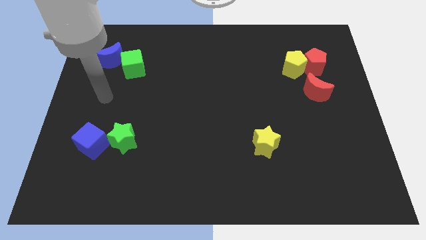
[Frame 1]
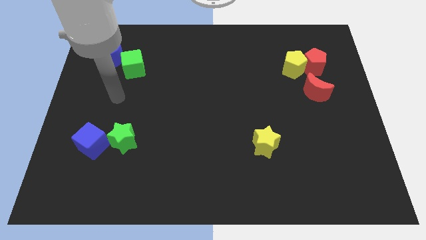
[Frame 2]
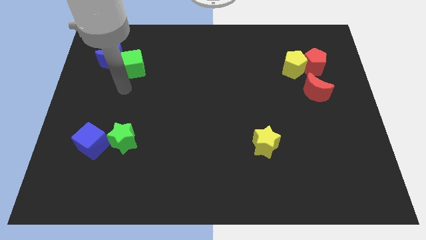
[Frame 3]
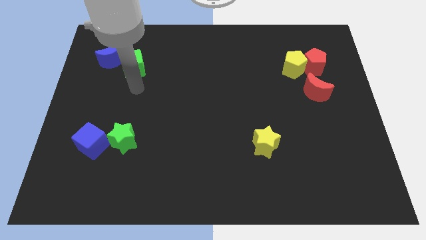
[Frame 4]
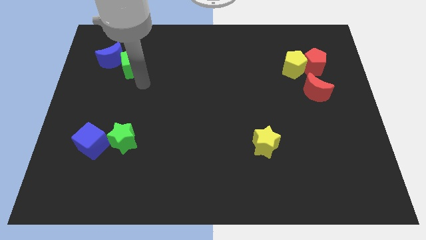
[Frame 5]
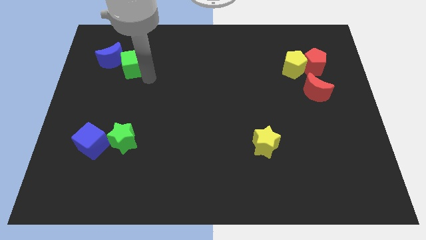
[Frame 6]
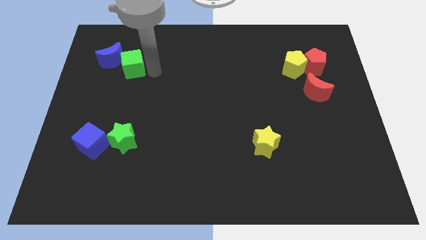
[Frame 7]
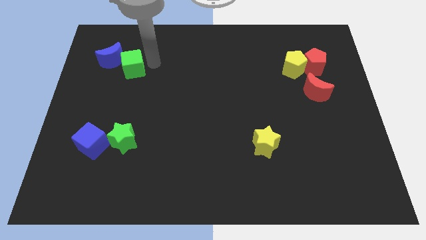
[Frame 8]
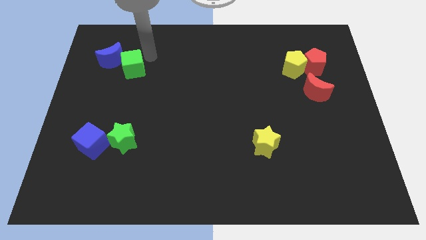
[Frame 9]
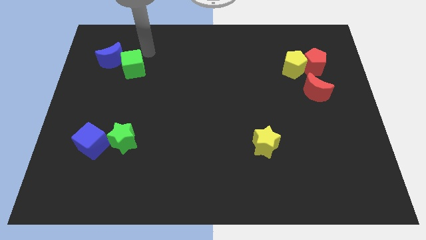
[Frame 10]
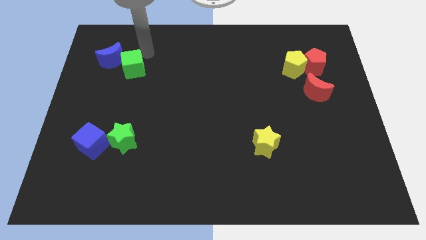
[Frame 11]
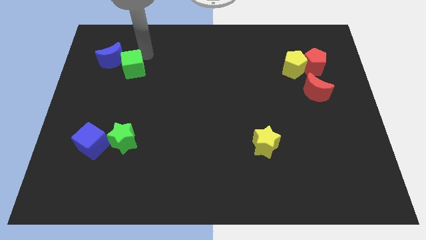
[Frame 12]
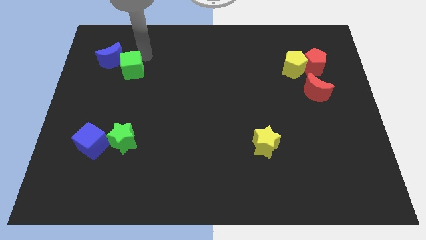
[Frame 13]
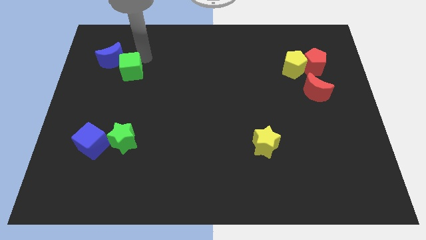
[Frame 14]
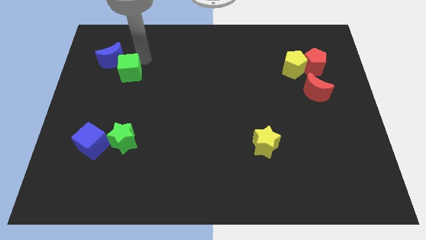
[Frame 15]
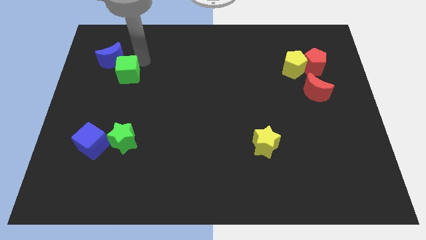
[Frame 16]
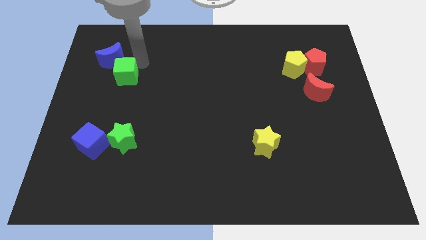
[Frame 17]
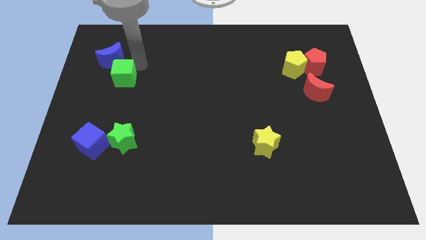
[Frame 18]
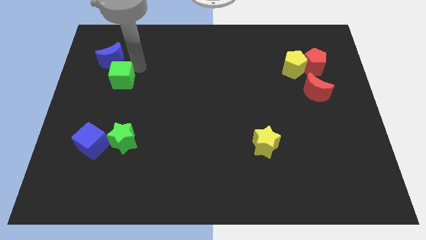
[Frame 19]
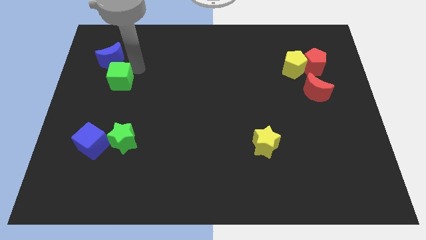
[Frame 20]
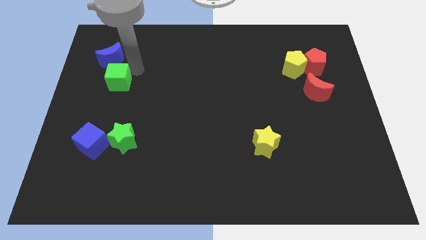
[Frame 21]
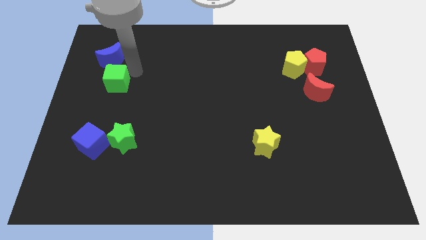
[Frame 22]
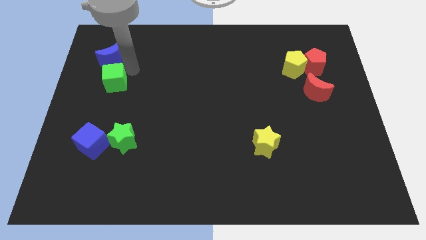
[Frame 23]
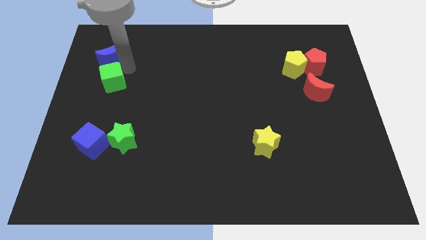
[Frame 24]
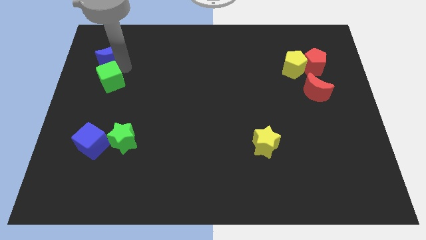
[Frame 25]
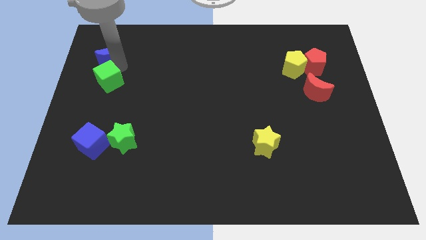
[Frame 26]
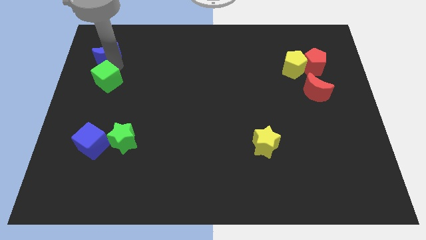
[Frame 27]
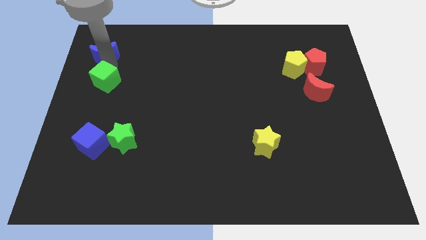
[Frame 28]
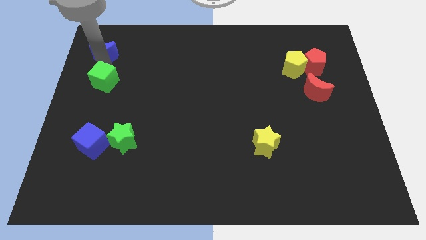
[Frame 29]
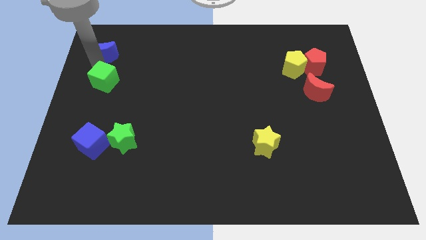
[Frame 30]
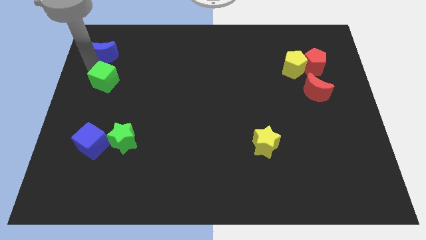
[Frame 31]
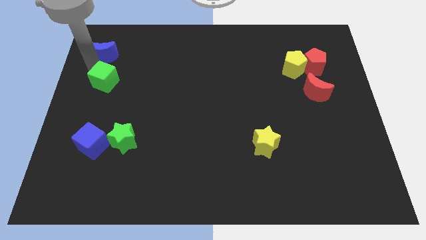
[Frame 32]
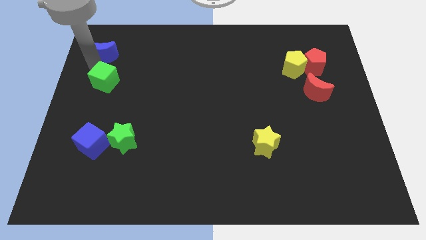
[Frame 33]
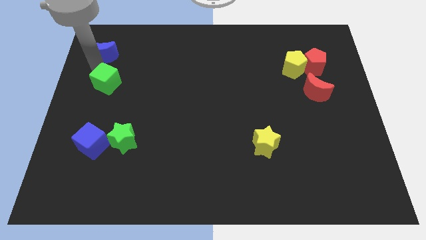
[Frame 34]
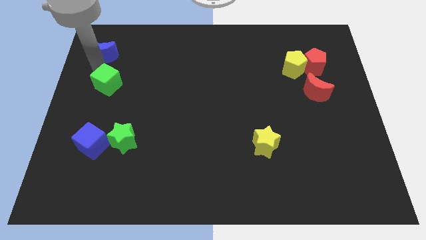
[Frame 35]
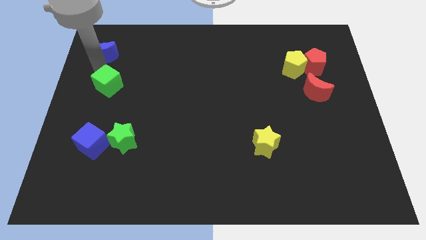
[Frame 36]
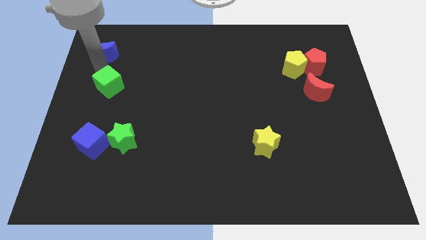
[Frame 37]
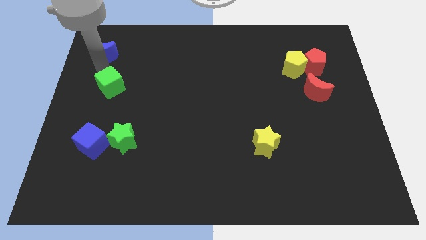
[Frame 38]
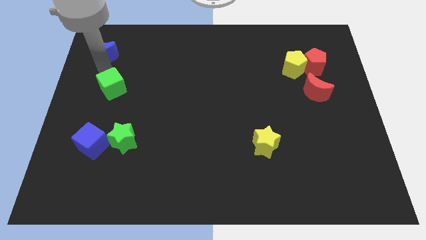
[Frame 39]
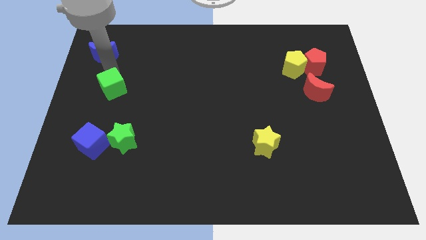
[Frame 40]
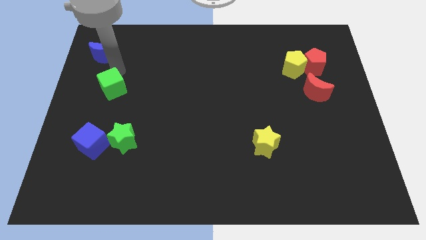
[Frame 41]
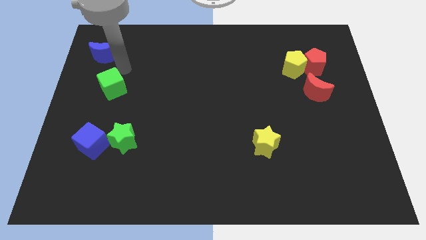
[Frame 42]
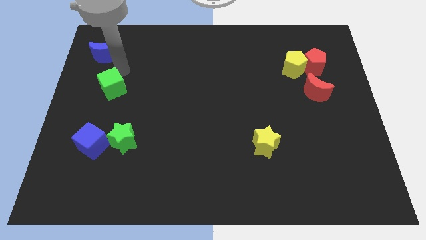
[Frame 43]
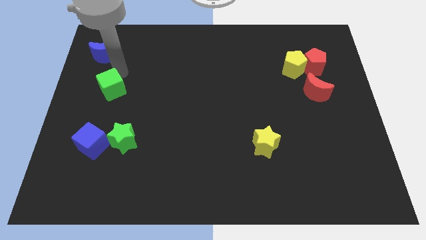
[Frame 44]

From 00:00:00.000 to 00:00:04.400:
slide the green cube above the blue cube

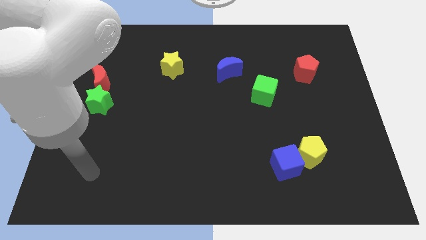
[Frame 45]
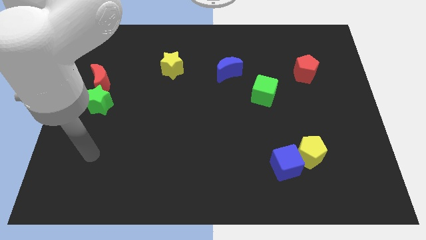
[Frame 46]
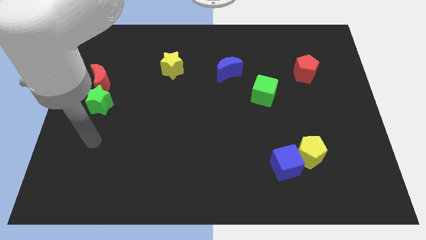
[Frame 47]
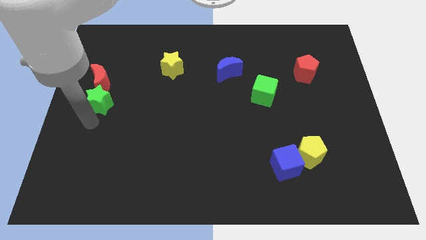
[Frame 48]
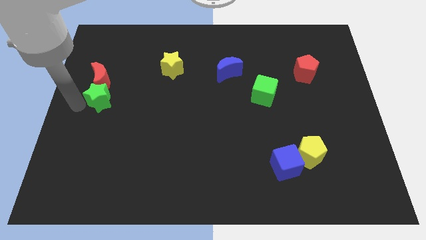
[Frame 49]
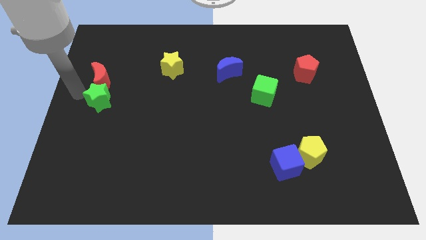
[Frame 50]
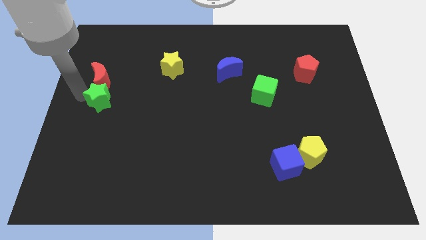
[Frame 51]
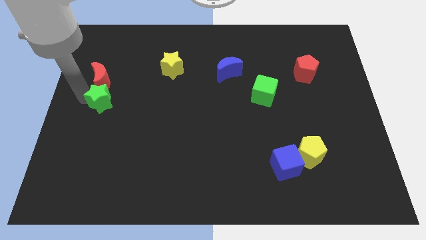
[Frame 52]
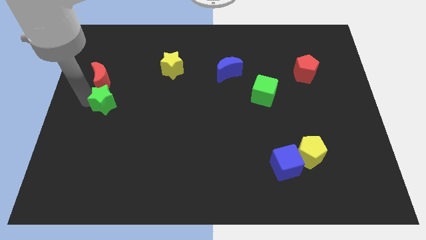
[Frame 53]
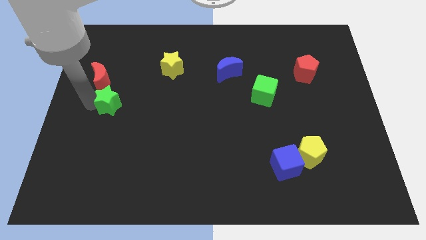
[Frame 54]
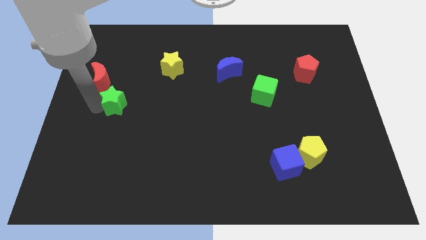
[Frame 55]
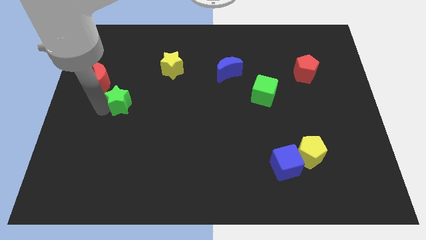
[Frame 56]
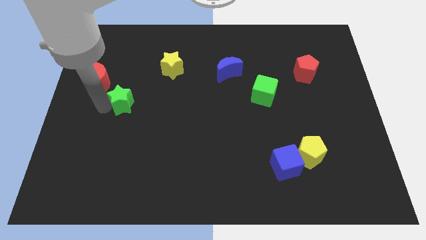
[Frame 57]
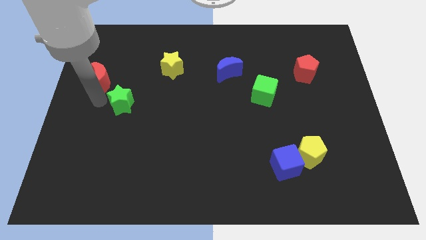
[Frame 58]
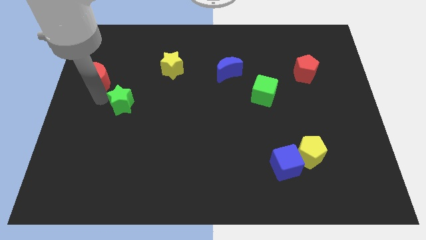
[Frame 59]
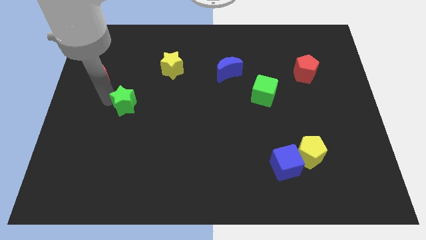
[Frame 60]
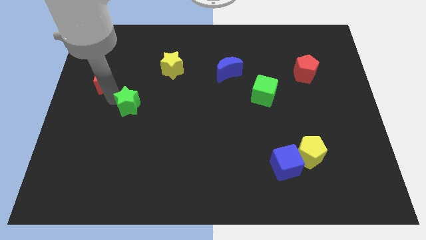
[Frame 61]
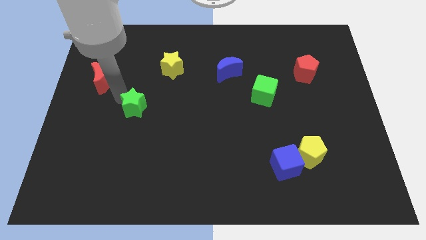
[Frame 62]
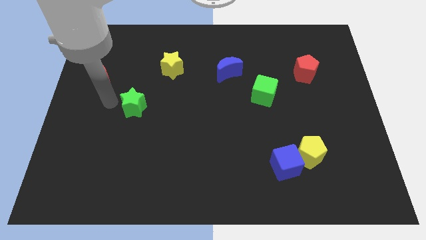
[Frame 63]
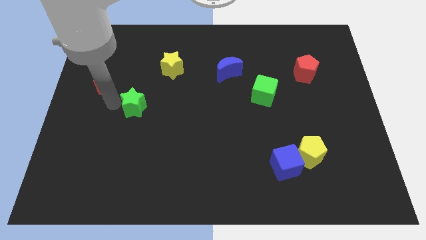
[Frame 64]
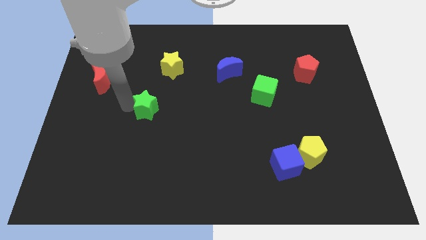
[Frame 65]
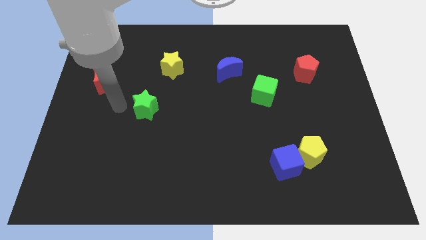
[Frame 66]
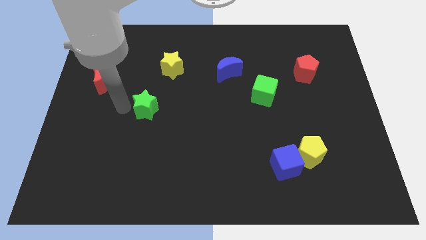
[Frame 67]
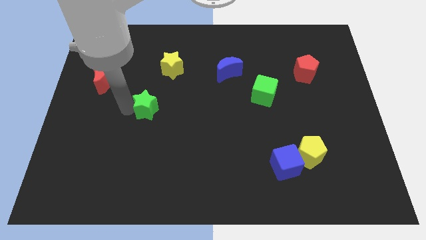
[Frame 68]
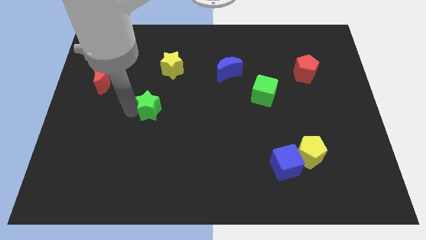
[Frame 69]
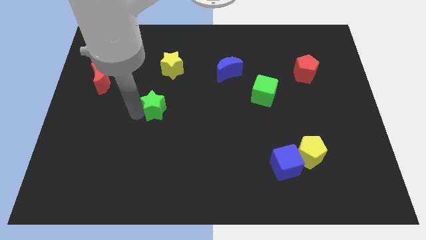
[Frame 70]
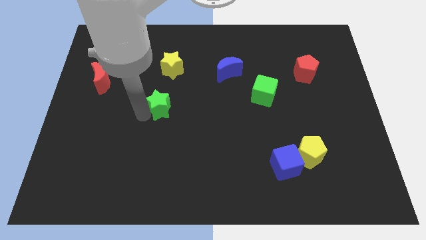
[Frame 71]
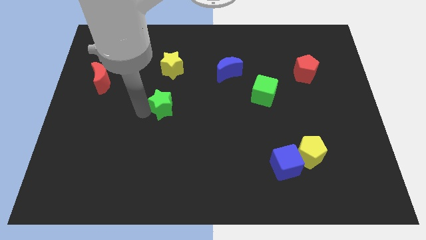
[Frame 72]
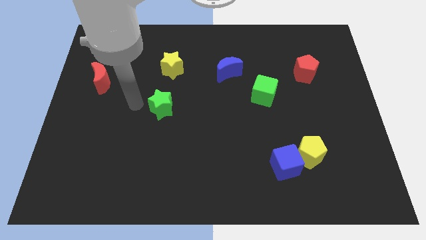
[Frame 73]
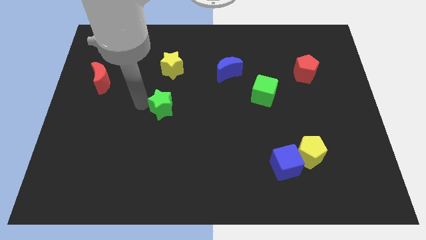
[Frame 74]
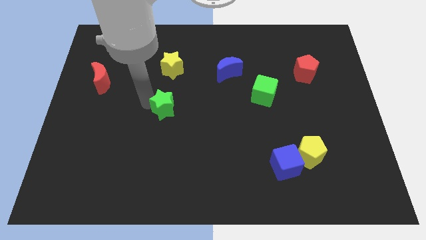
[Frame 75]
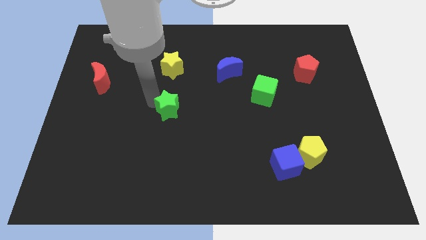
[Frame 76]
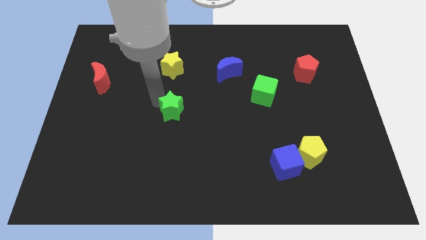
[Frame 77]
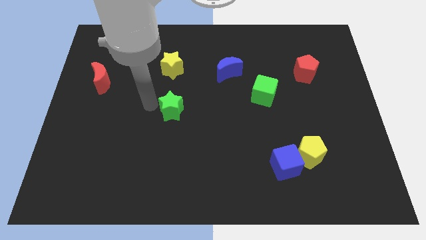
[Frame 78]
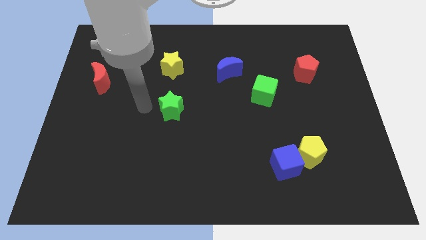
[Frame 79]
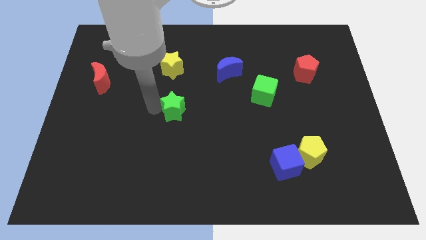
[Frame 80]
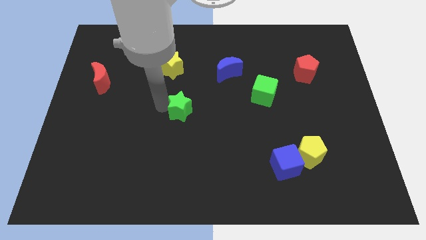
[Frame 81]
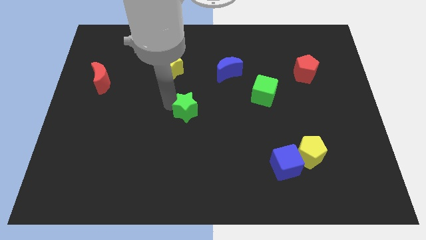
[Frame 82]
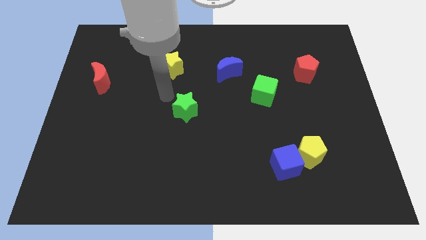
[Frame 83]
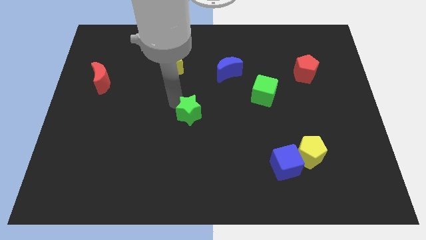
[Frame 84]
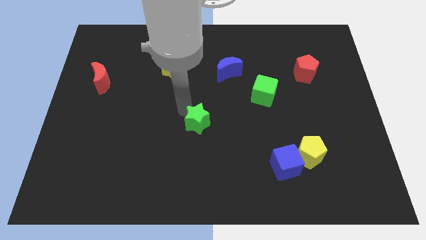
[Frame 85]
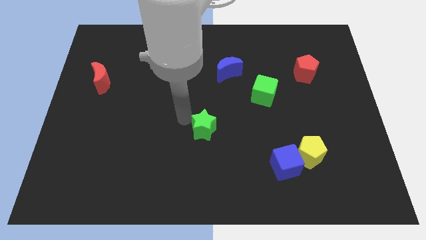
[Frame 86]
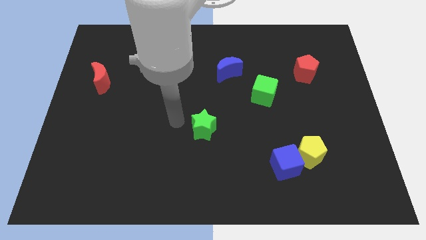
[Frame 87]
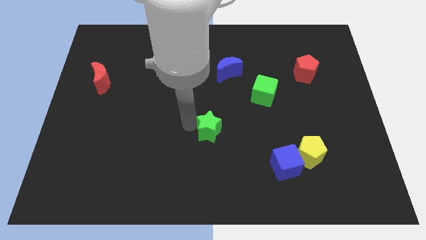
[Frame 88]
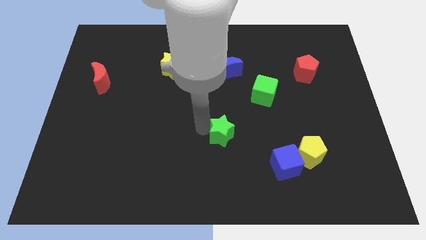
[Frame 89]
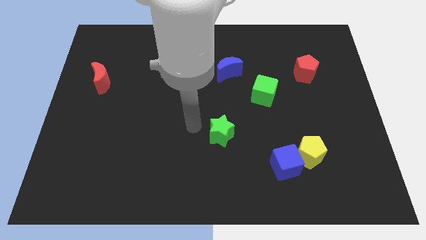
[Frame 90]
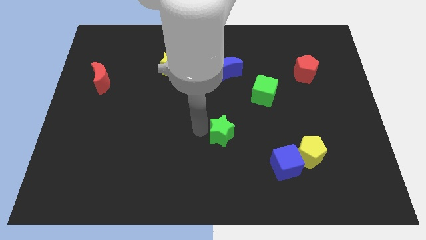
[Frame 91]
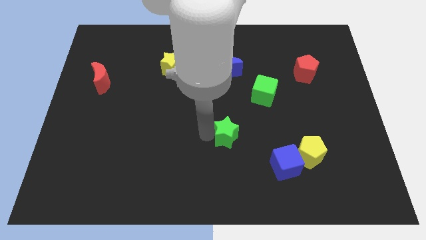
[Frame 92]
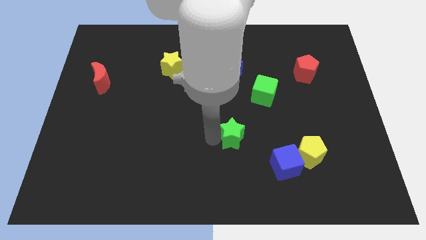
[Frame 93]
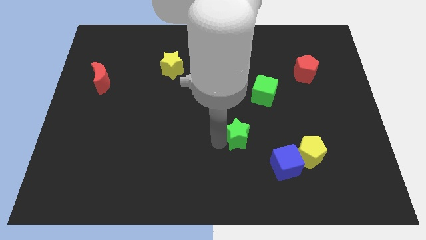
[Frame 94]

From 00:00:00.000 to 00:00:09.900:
put the green star to the top left side of the blue cube
